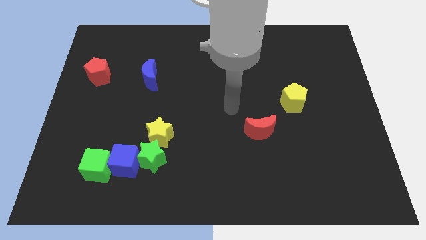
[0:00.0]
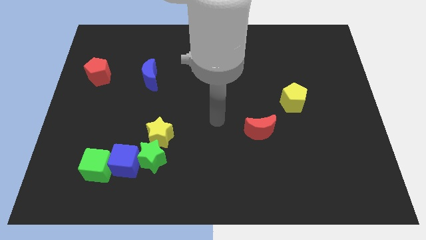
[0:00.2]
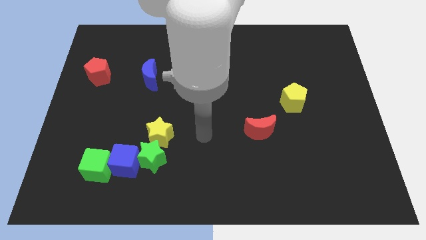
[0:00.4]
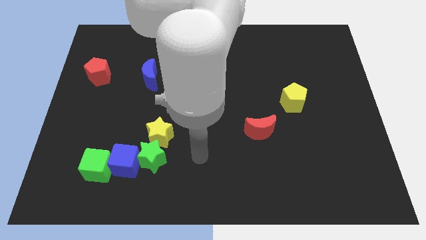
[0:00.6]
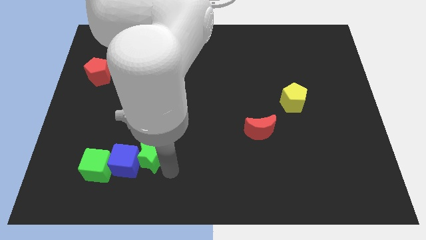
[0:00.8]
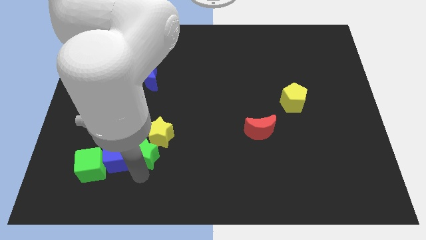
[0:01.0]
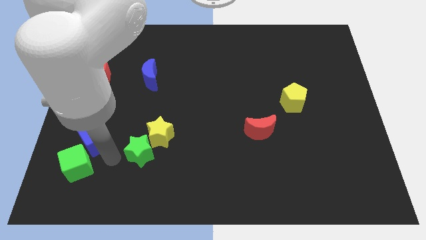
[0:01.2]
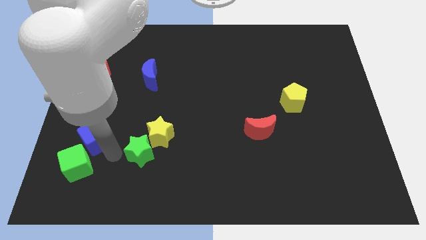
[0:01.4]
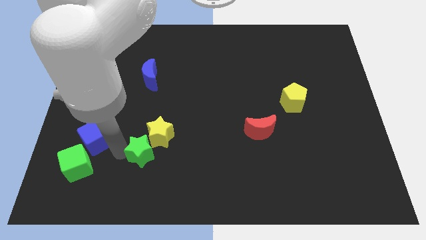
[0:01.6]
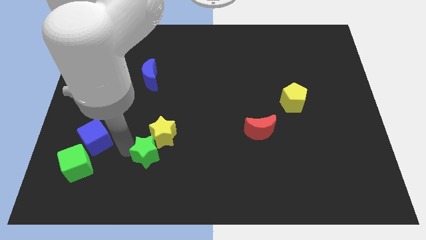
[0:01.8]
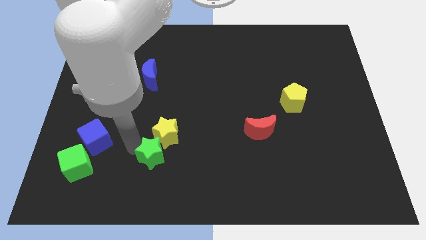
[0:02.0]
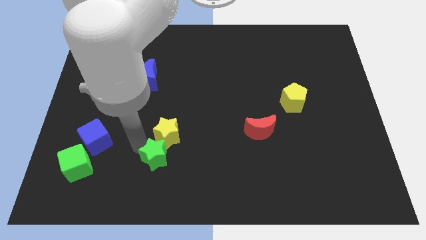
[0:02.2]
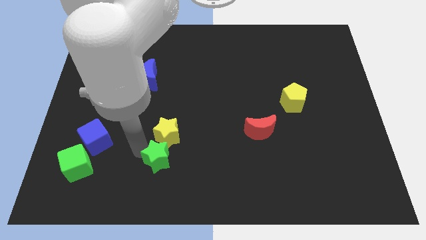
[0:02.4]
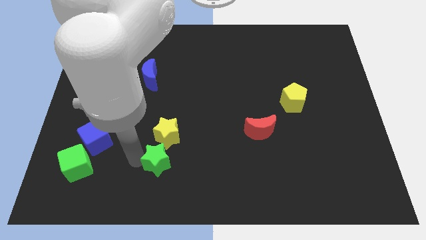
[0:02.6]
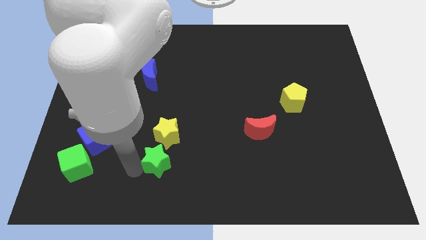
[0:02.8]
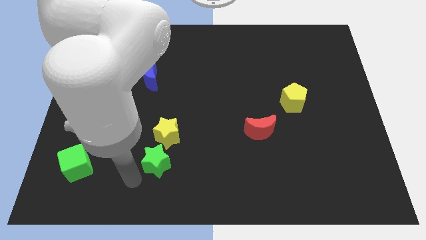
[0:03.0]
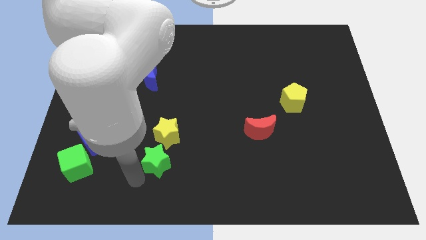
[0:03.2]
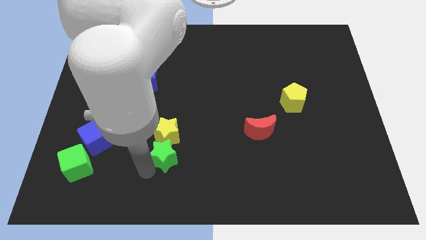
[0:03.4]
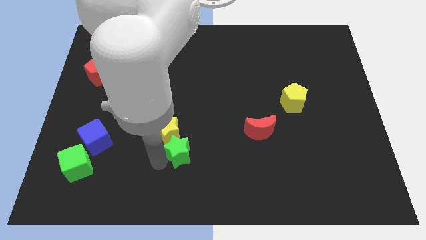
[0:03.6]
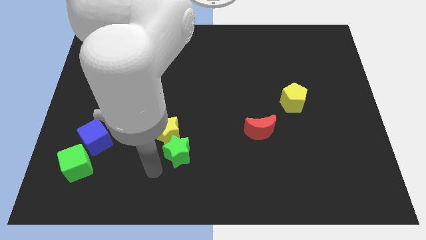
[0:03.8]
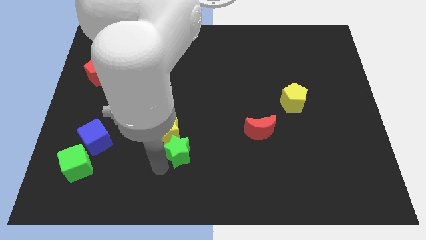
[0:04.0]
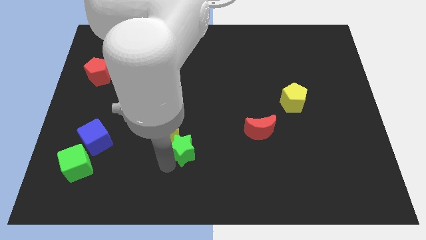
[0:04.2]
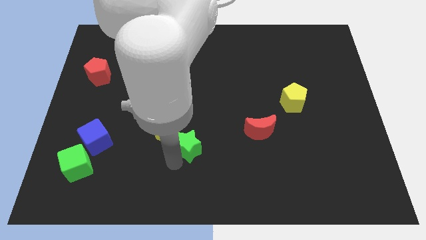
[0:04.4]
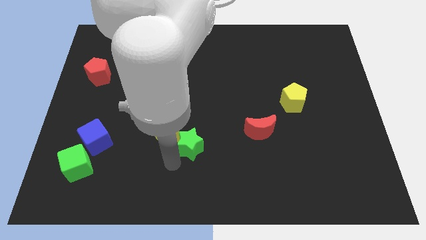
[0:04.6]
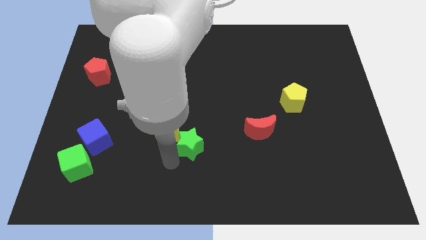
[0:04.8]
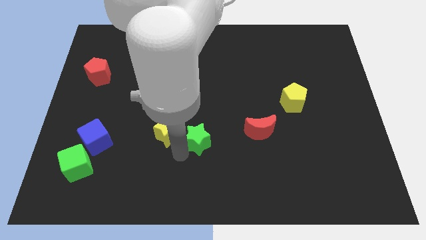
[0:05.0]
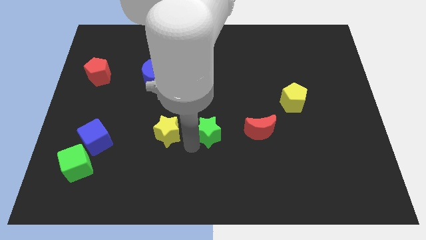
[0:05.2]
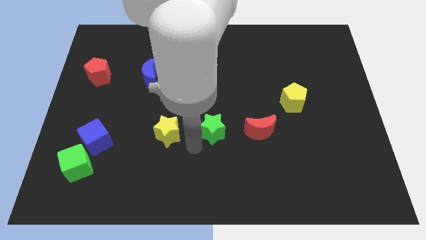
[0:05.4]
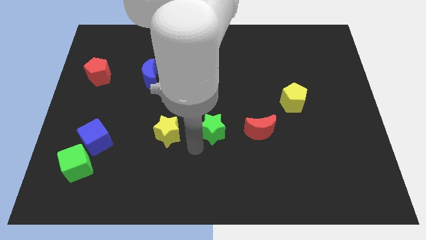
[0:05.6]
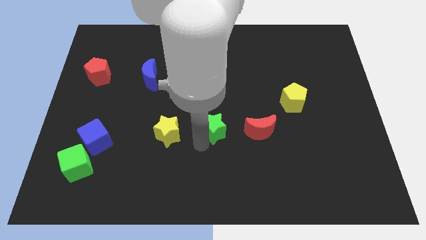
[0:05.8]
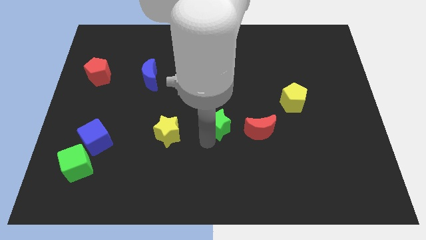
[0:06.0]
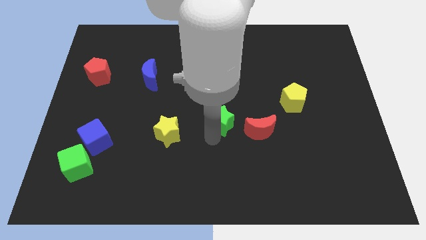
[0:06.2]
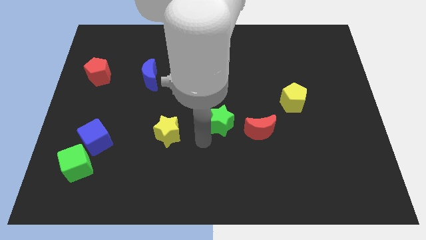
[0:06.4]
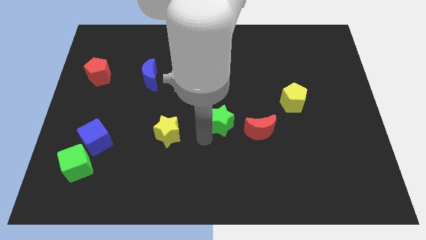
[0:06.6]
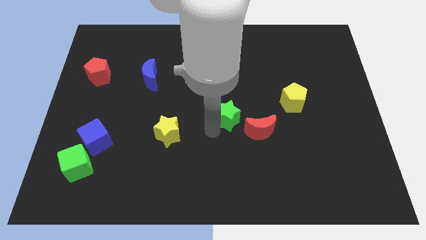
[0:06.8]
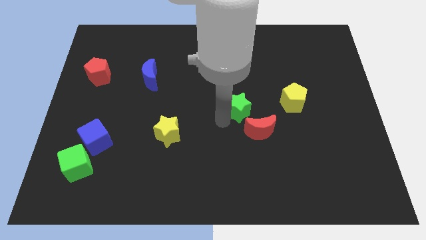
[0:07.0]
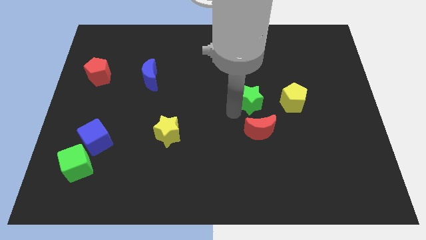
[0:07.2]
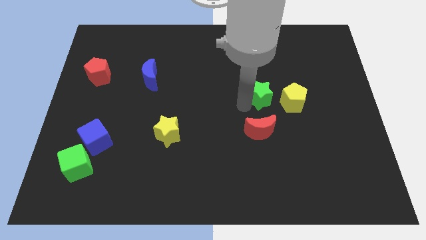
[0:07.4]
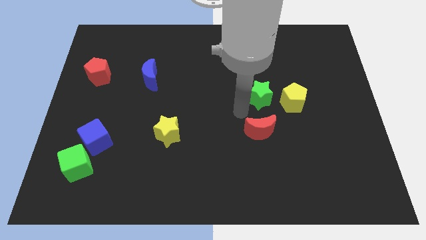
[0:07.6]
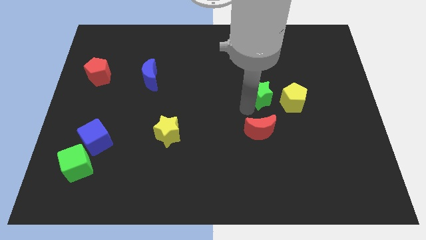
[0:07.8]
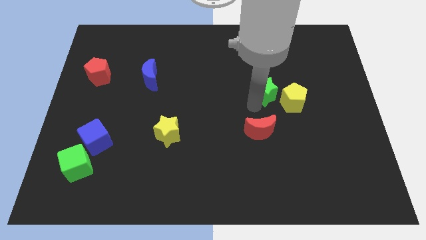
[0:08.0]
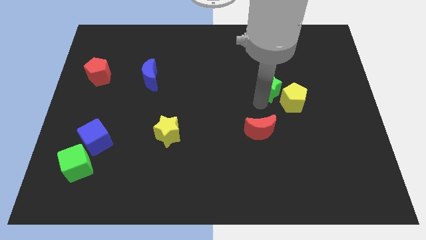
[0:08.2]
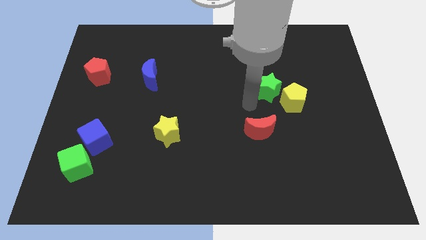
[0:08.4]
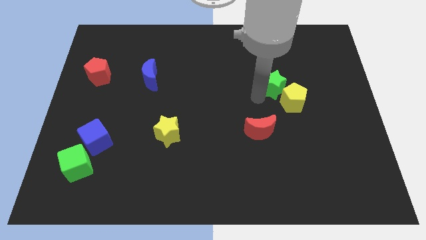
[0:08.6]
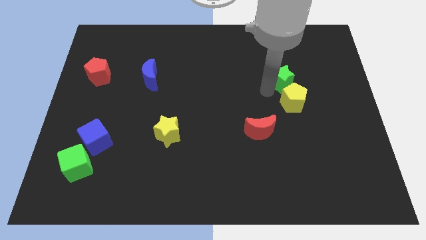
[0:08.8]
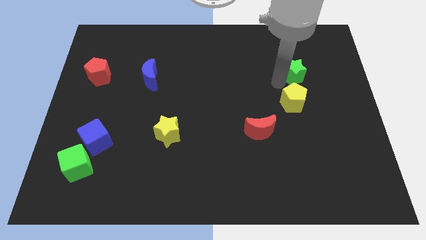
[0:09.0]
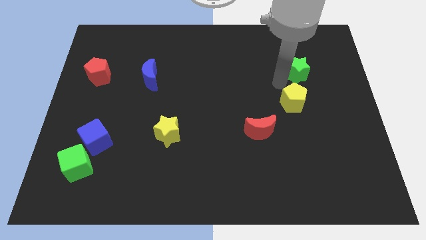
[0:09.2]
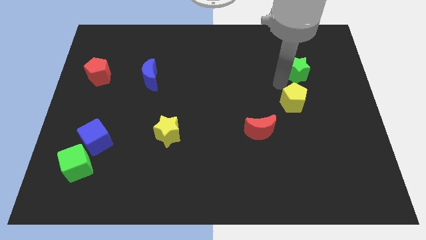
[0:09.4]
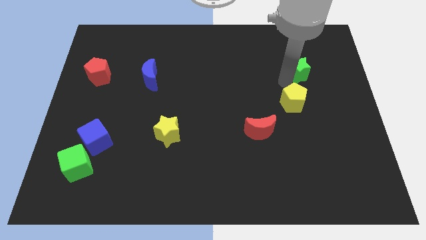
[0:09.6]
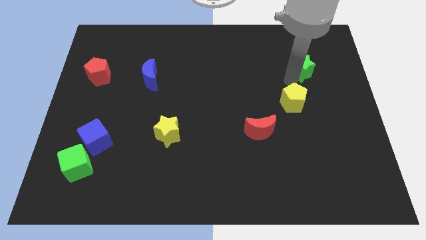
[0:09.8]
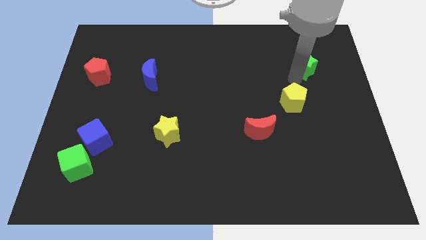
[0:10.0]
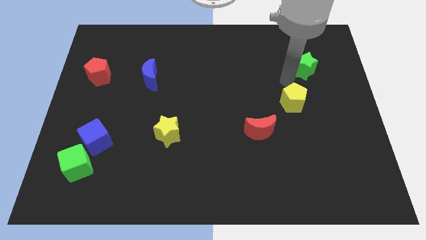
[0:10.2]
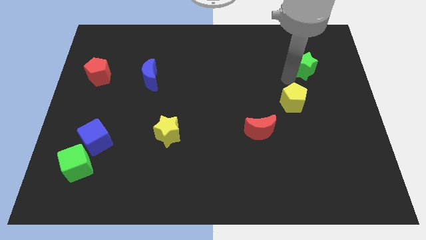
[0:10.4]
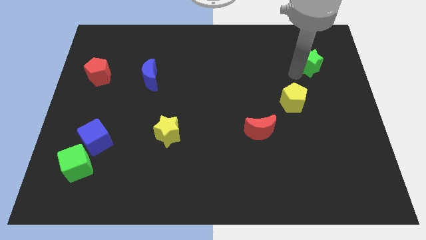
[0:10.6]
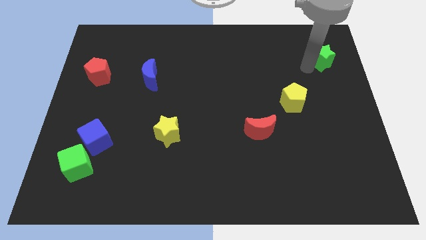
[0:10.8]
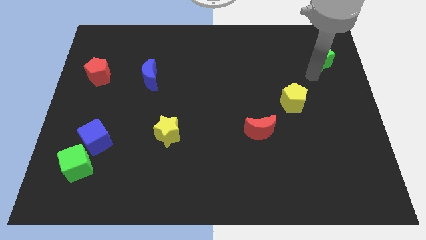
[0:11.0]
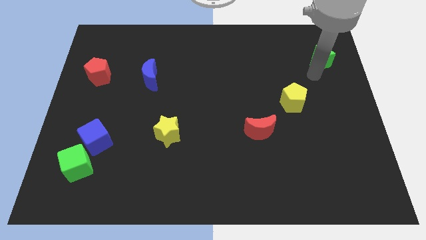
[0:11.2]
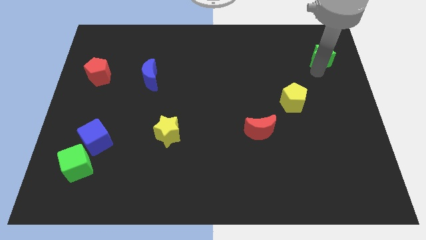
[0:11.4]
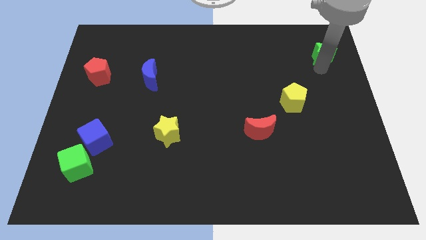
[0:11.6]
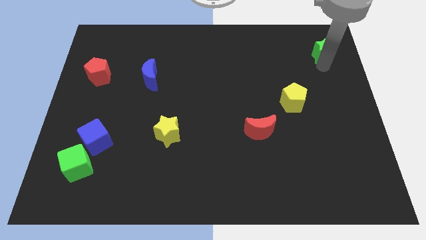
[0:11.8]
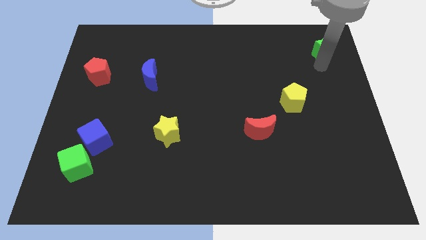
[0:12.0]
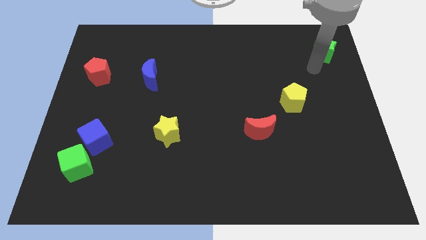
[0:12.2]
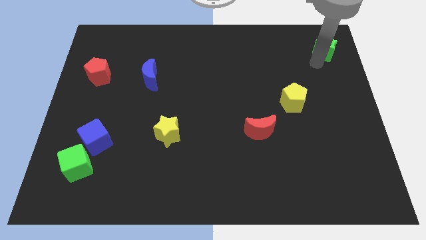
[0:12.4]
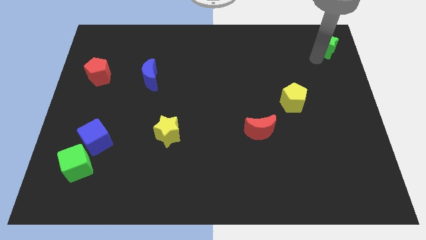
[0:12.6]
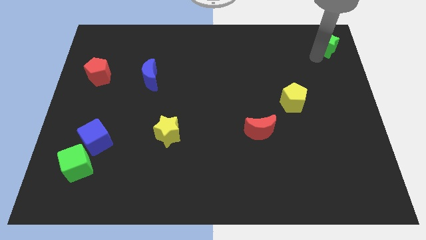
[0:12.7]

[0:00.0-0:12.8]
move the green star to the top right of the board
